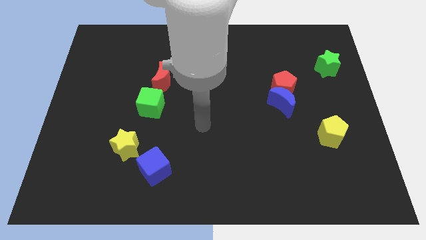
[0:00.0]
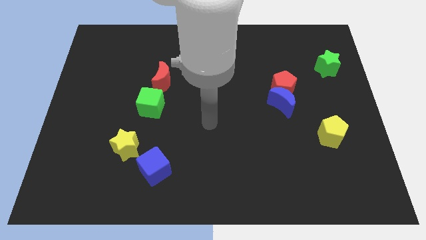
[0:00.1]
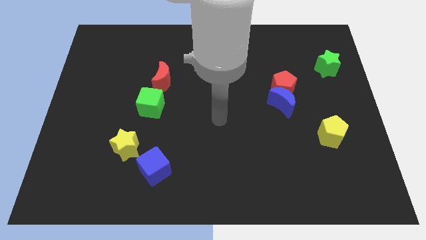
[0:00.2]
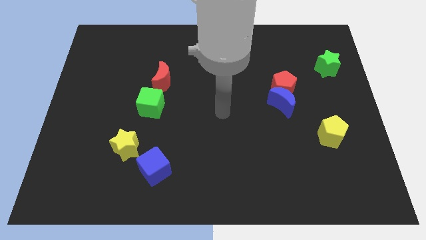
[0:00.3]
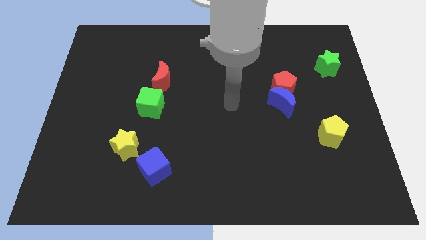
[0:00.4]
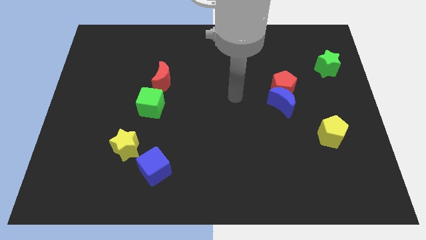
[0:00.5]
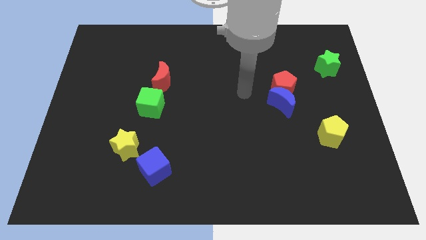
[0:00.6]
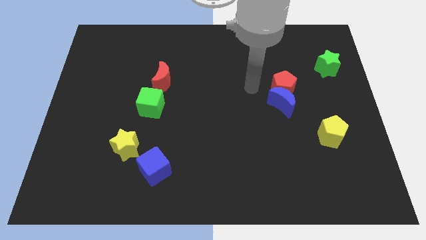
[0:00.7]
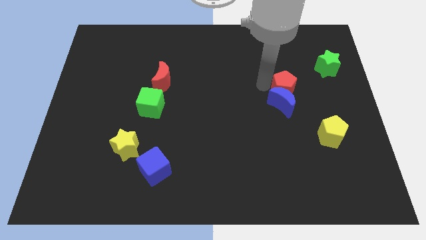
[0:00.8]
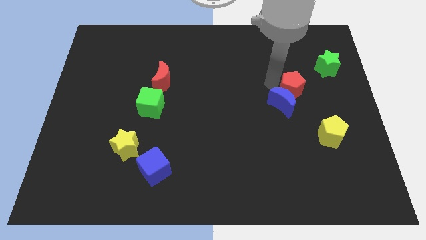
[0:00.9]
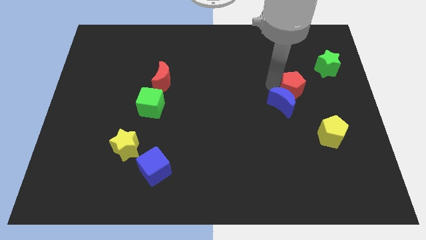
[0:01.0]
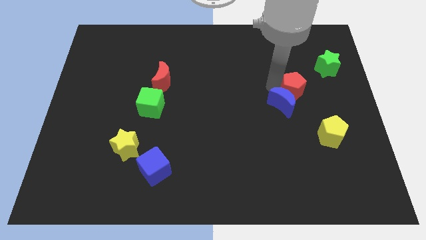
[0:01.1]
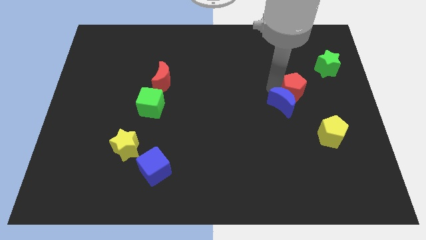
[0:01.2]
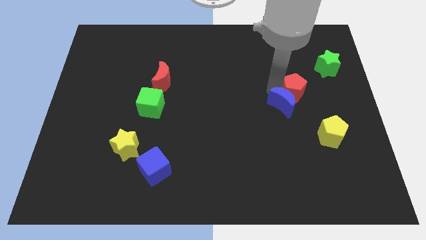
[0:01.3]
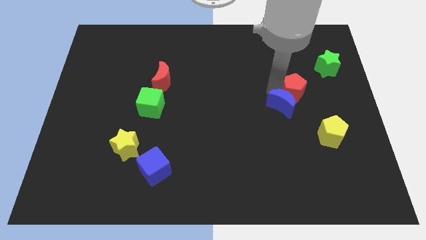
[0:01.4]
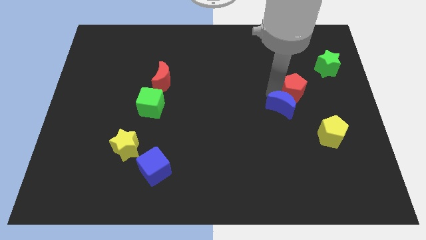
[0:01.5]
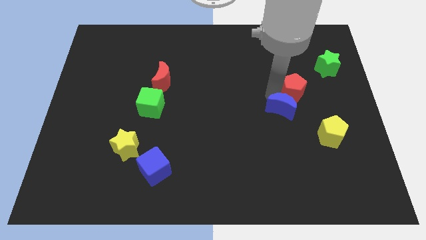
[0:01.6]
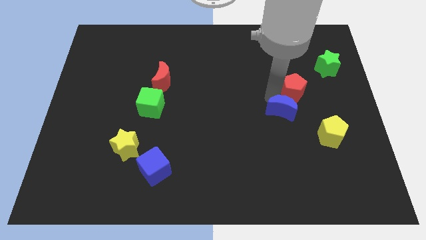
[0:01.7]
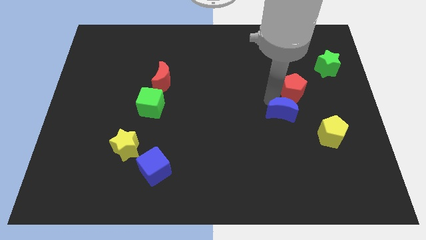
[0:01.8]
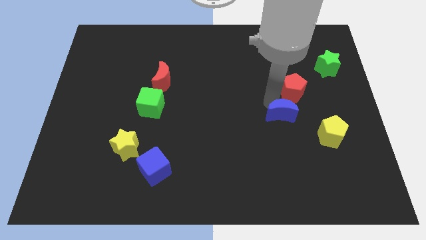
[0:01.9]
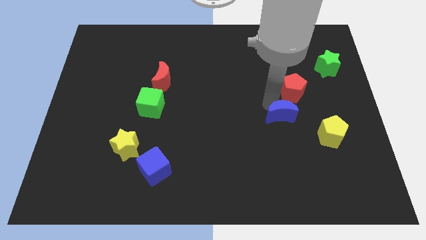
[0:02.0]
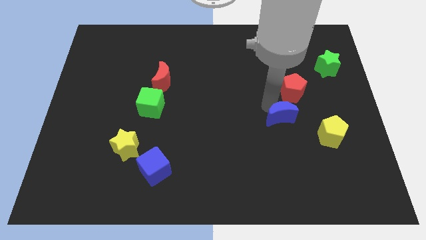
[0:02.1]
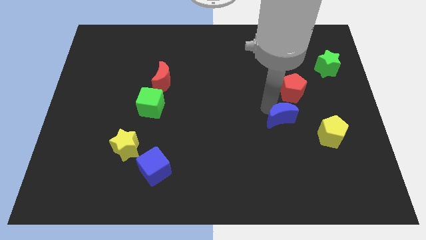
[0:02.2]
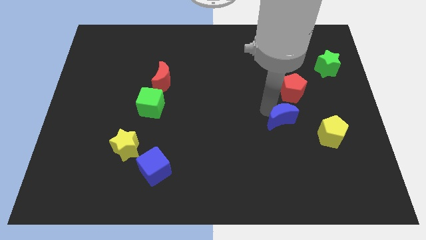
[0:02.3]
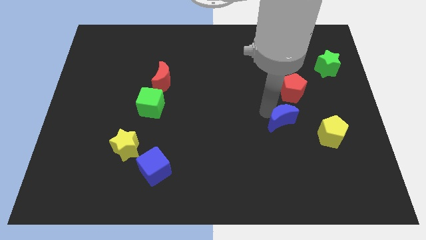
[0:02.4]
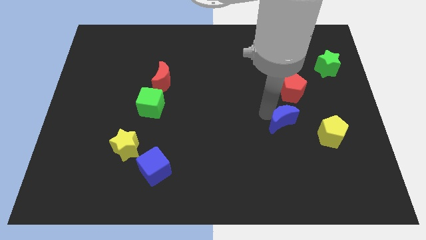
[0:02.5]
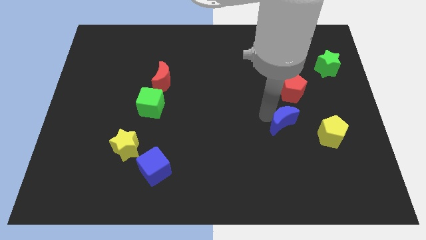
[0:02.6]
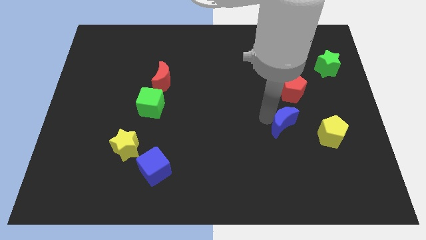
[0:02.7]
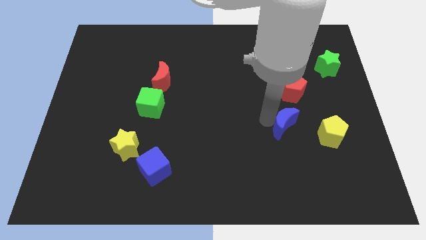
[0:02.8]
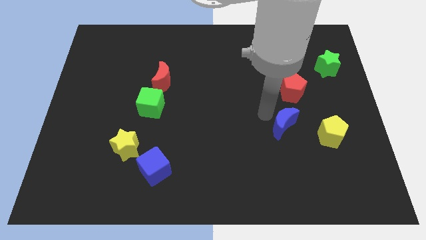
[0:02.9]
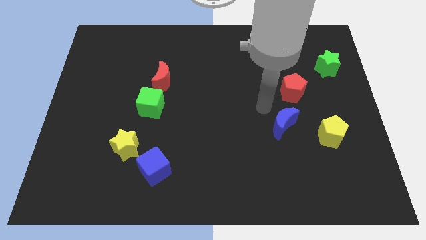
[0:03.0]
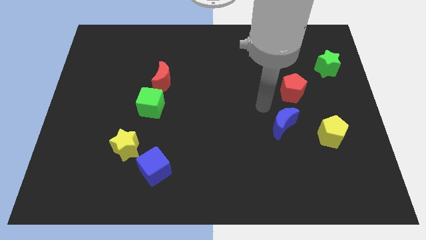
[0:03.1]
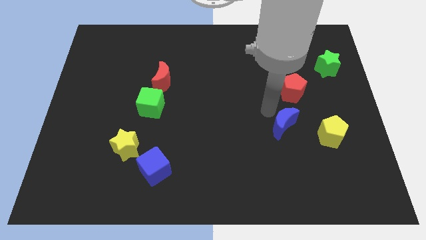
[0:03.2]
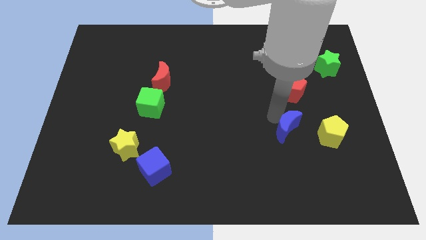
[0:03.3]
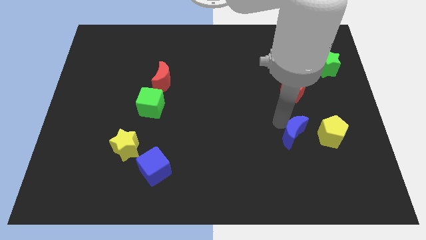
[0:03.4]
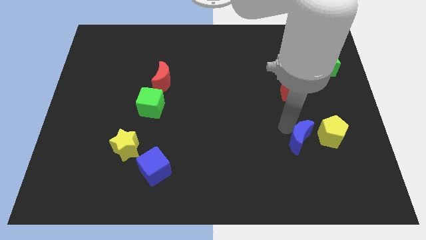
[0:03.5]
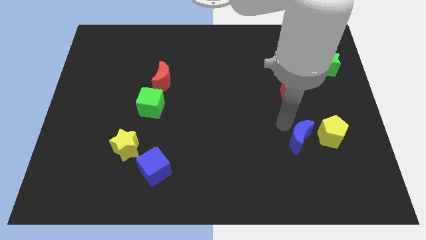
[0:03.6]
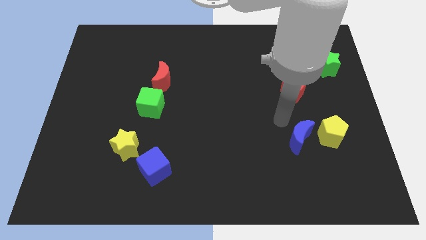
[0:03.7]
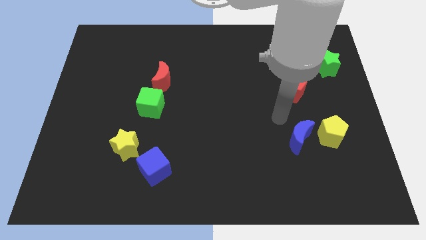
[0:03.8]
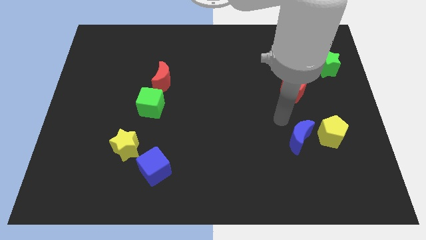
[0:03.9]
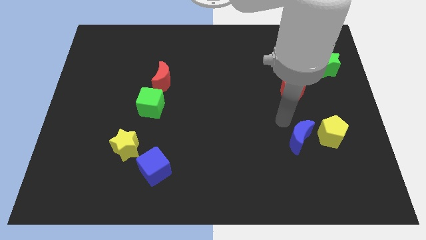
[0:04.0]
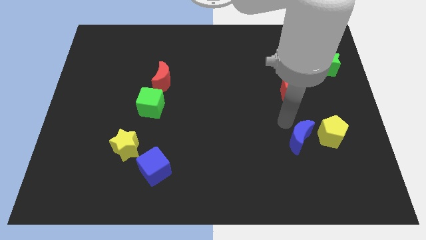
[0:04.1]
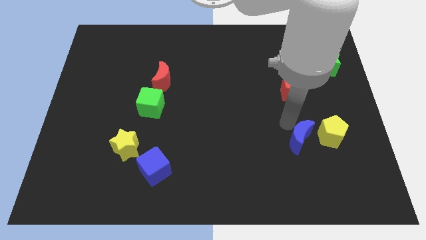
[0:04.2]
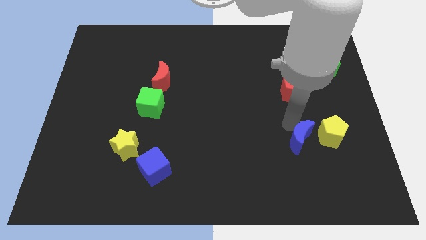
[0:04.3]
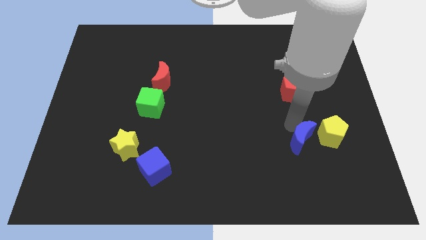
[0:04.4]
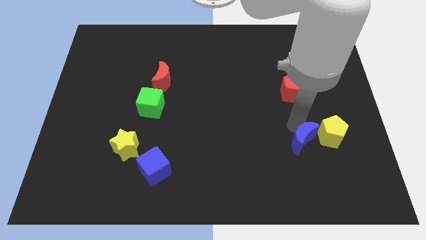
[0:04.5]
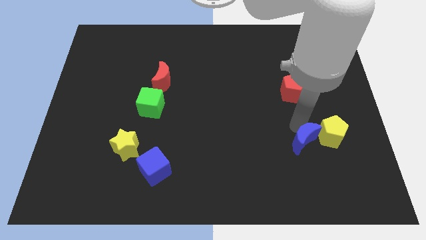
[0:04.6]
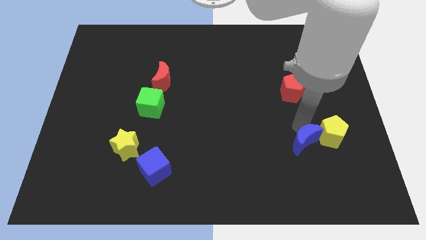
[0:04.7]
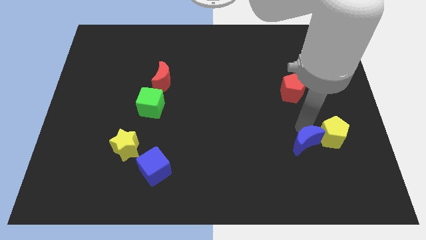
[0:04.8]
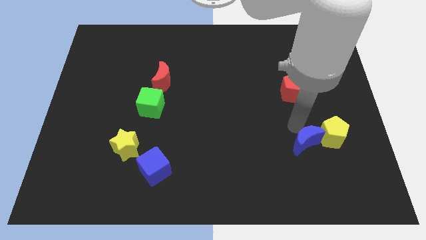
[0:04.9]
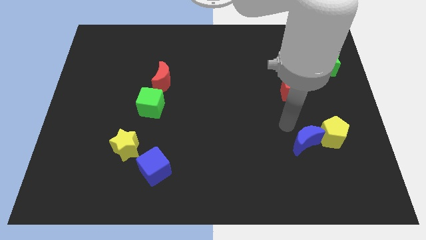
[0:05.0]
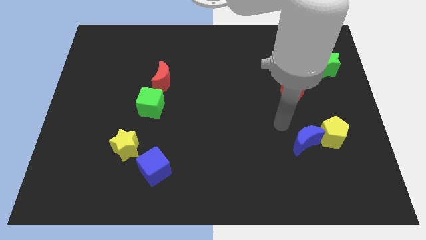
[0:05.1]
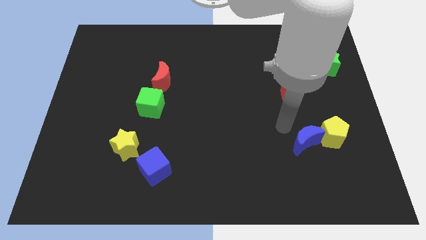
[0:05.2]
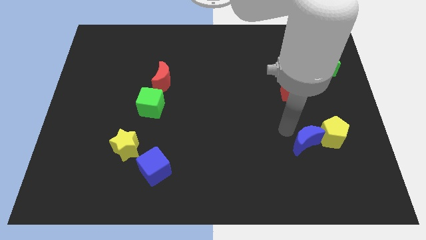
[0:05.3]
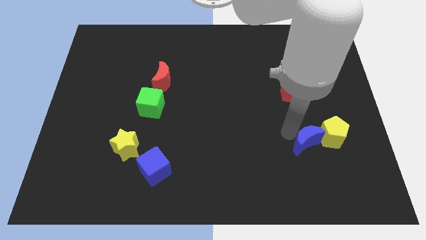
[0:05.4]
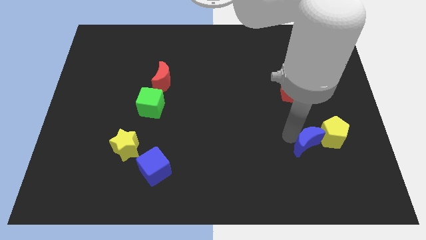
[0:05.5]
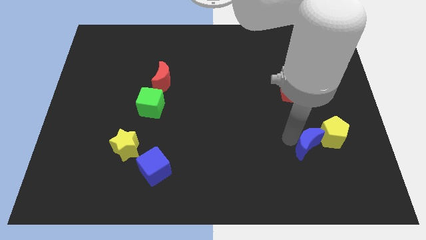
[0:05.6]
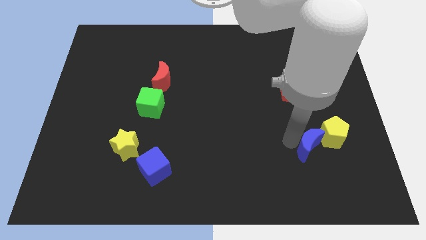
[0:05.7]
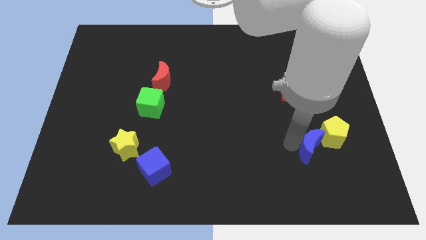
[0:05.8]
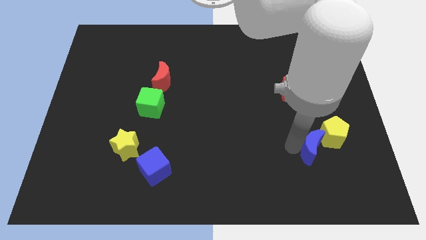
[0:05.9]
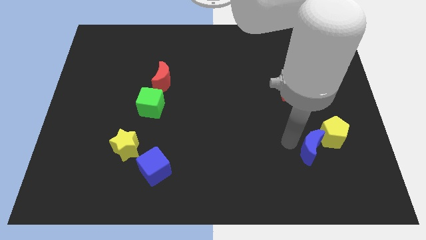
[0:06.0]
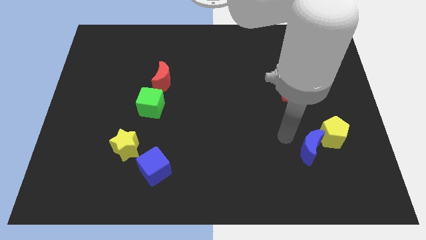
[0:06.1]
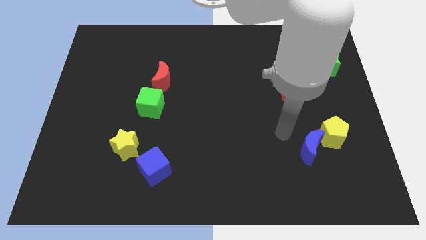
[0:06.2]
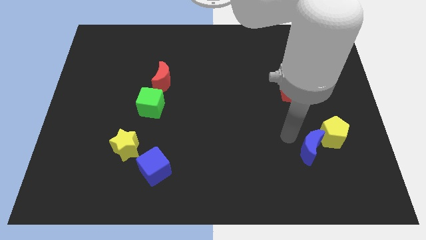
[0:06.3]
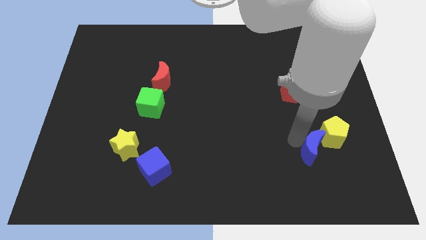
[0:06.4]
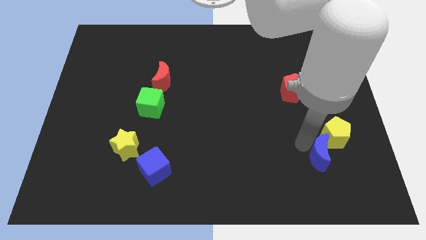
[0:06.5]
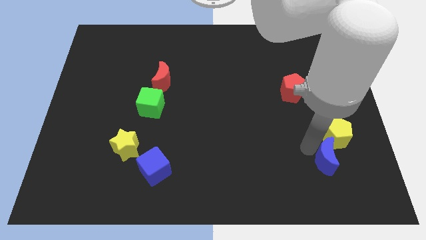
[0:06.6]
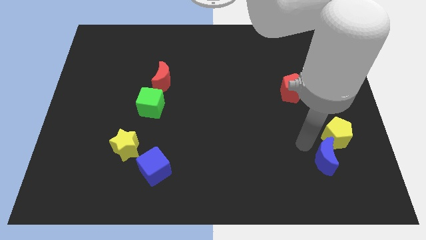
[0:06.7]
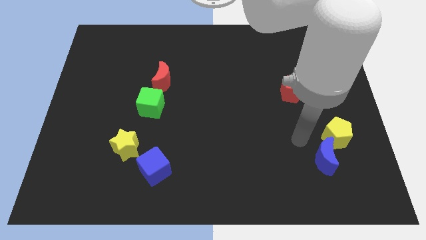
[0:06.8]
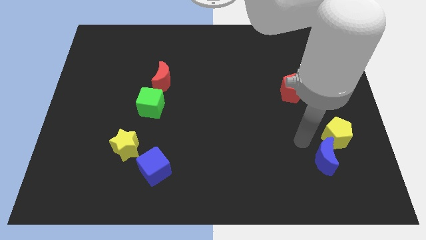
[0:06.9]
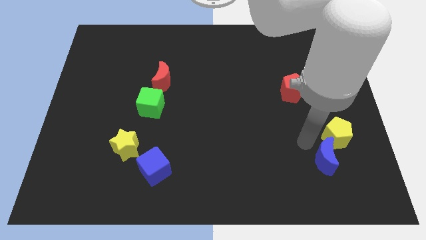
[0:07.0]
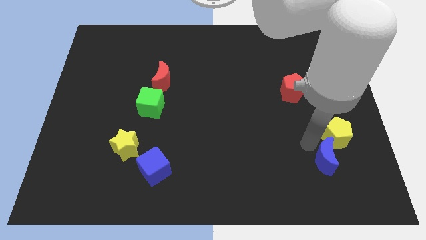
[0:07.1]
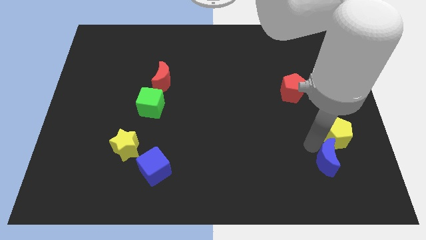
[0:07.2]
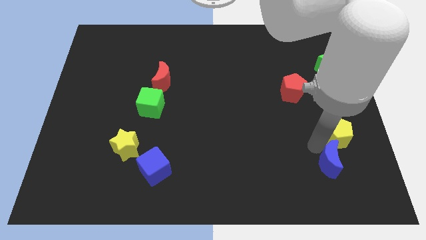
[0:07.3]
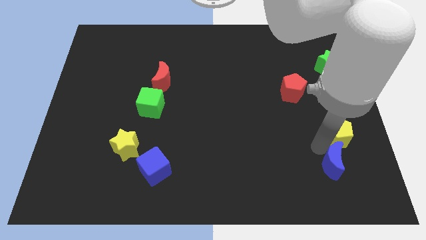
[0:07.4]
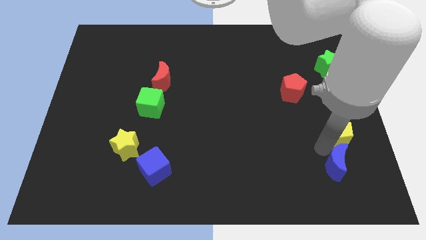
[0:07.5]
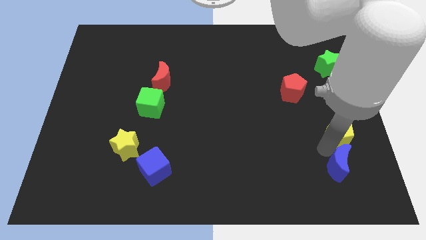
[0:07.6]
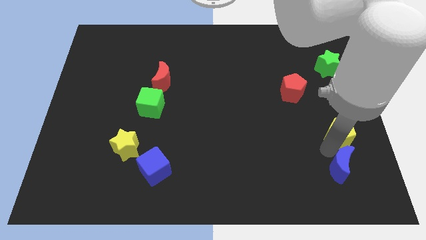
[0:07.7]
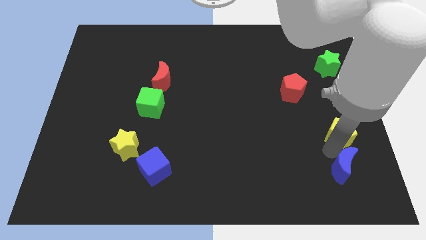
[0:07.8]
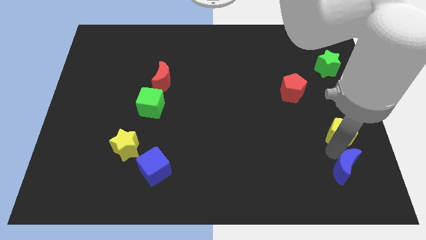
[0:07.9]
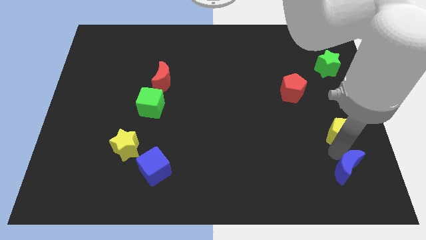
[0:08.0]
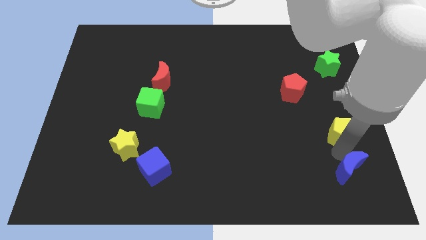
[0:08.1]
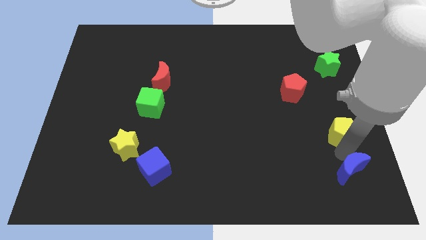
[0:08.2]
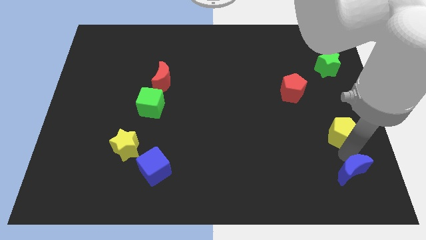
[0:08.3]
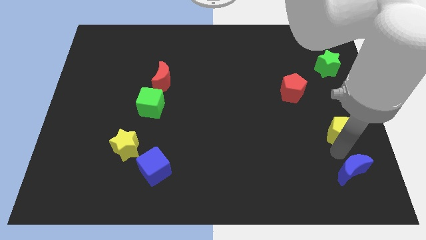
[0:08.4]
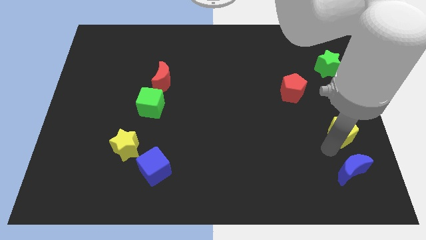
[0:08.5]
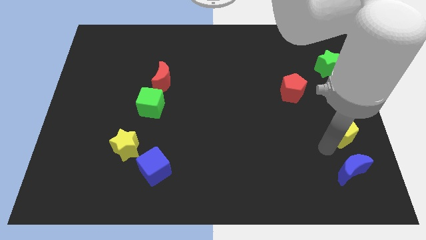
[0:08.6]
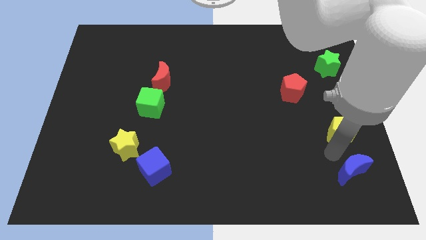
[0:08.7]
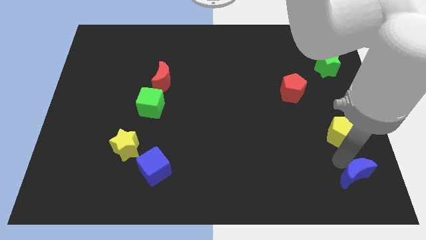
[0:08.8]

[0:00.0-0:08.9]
slide the blue moon to the bottom right corner
